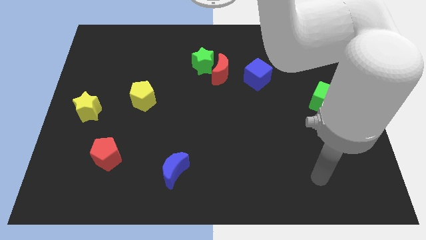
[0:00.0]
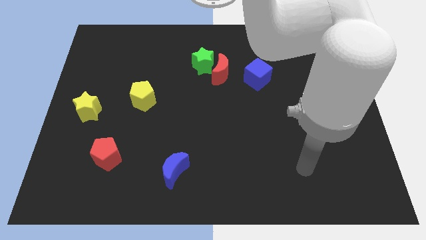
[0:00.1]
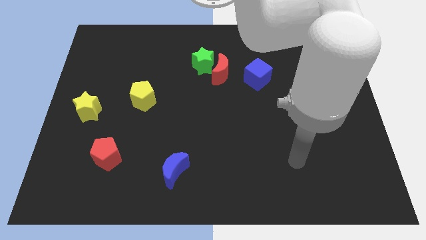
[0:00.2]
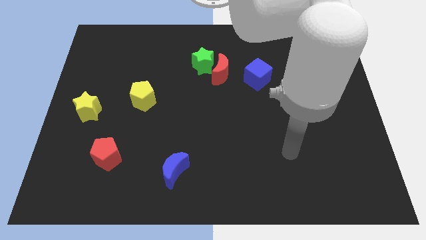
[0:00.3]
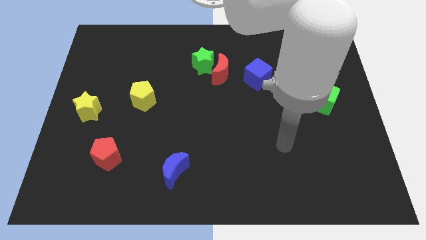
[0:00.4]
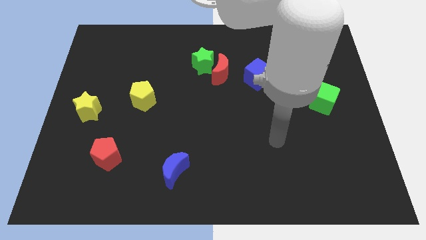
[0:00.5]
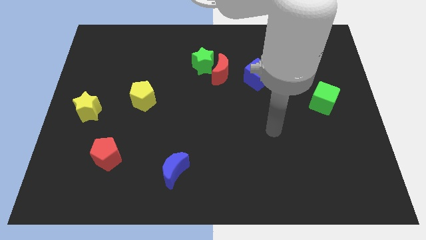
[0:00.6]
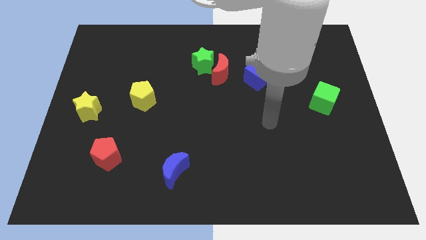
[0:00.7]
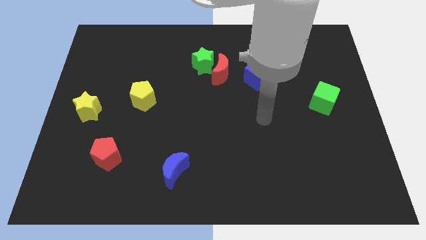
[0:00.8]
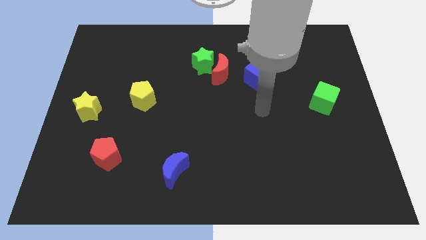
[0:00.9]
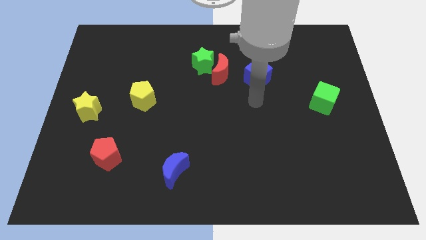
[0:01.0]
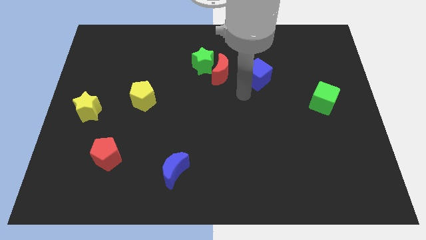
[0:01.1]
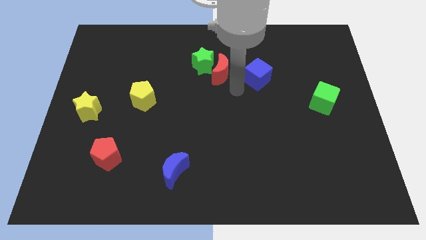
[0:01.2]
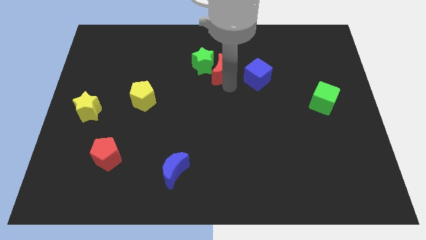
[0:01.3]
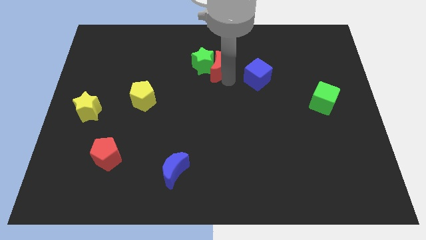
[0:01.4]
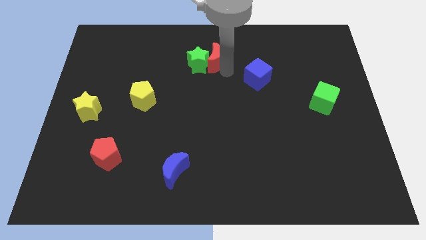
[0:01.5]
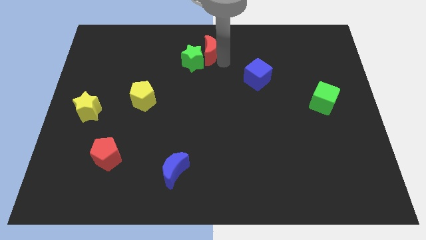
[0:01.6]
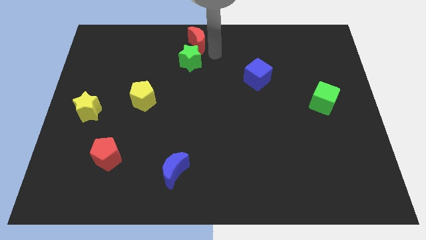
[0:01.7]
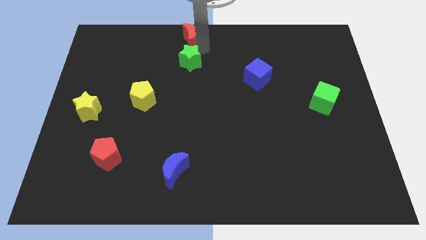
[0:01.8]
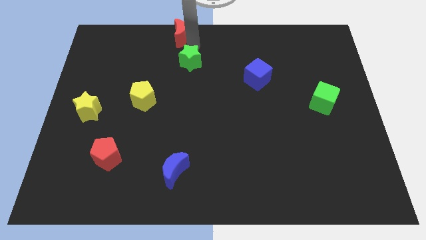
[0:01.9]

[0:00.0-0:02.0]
separate the green star from the red moon

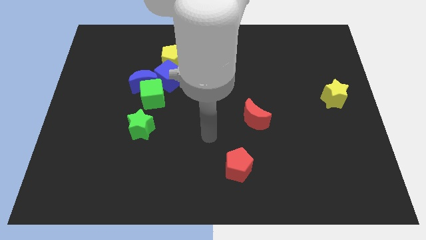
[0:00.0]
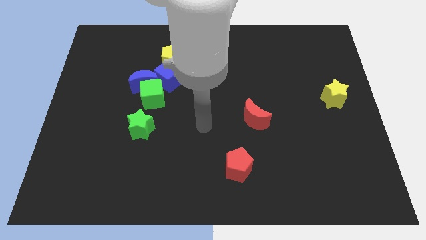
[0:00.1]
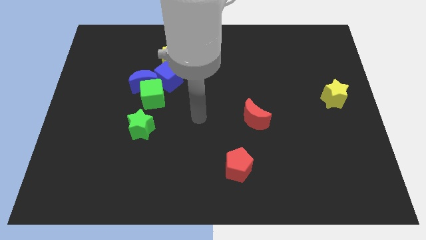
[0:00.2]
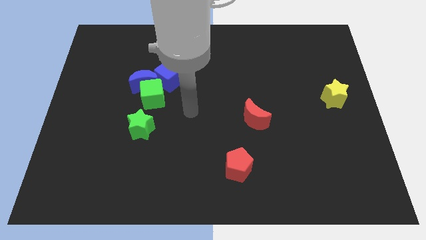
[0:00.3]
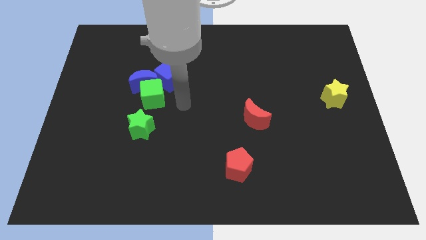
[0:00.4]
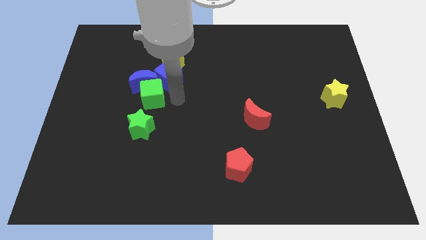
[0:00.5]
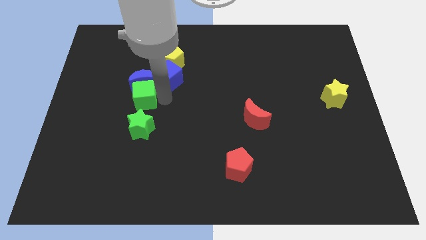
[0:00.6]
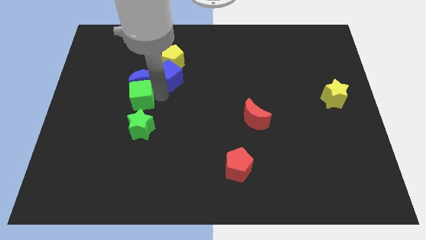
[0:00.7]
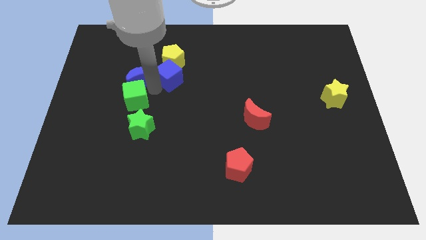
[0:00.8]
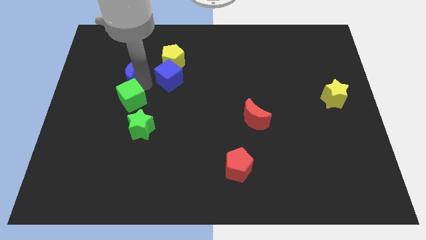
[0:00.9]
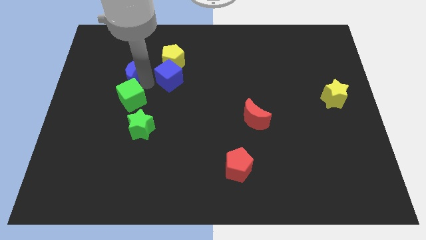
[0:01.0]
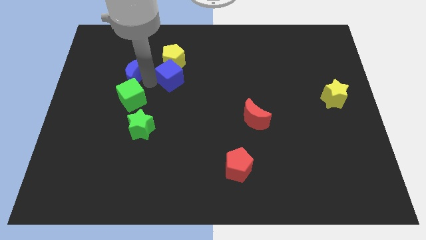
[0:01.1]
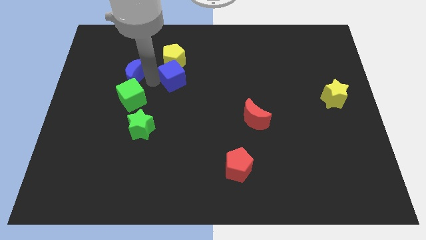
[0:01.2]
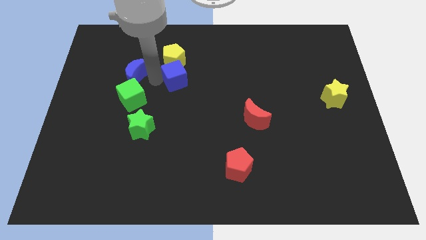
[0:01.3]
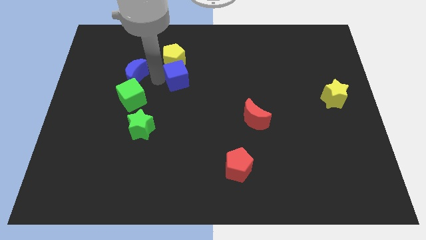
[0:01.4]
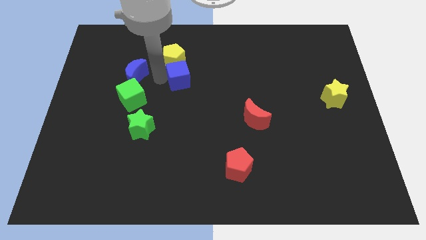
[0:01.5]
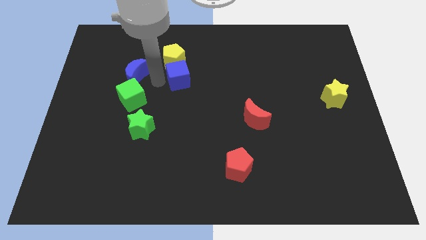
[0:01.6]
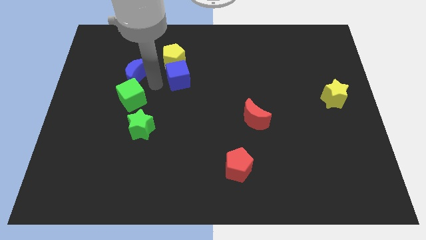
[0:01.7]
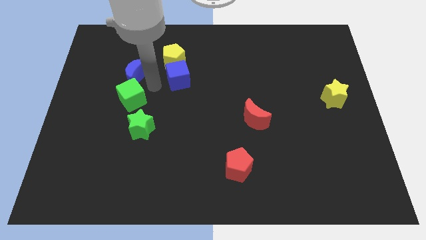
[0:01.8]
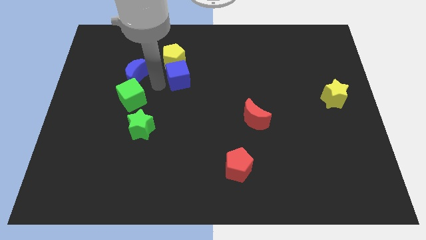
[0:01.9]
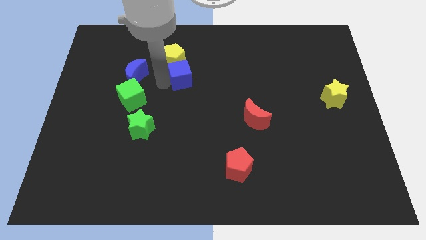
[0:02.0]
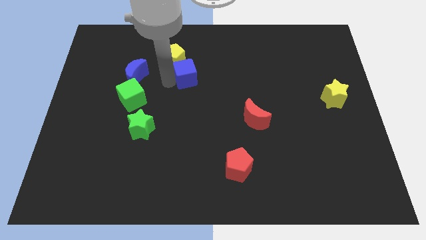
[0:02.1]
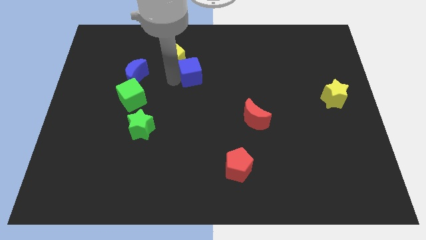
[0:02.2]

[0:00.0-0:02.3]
pull the blue cube apart from the group

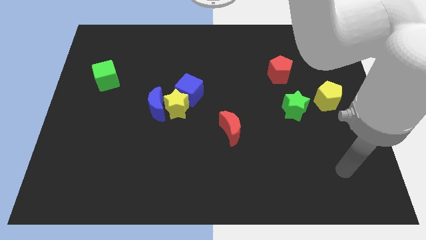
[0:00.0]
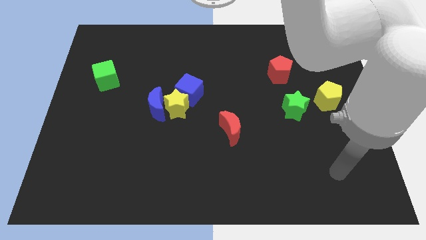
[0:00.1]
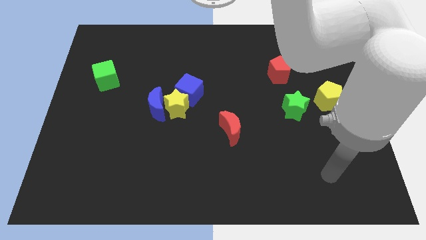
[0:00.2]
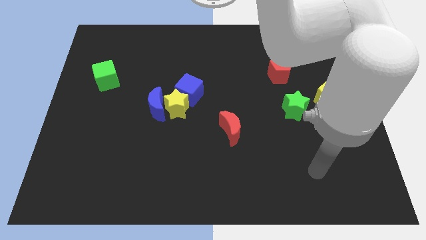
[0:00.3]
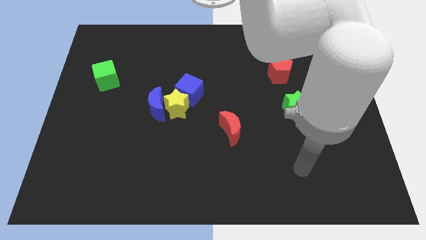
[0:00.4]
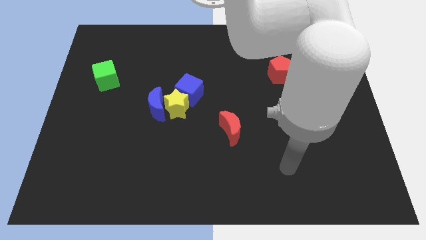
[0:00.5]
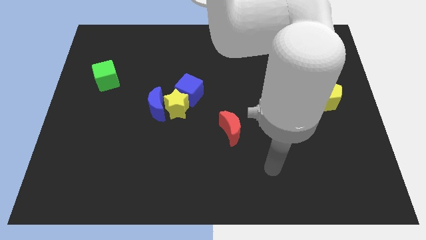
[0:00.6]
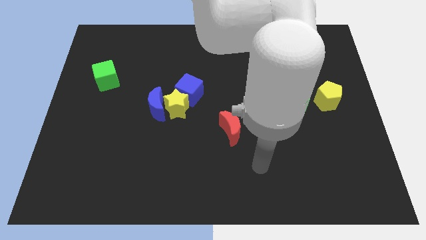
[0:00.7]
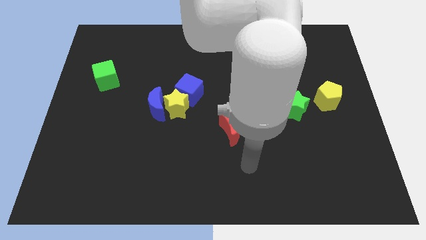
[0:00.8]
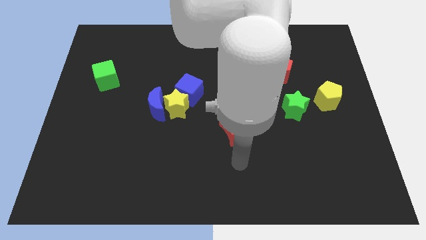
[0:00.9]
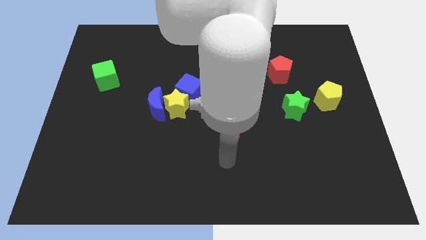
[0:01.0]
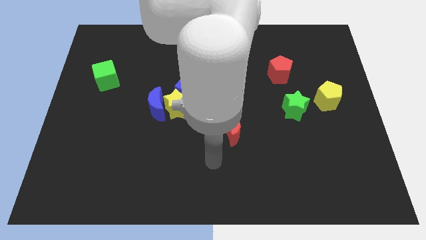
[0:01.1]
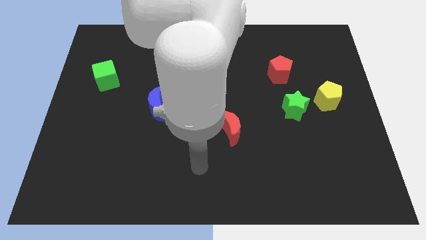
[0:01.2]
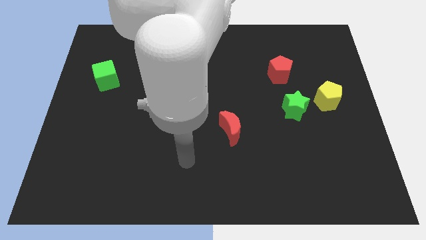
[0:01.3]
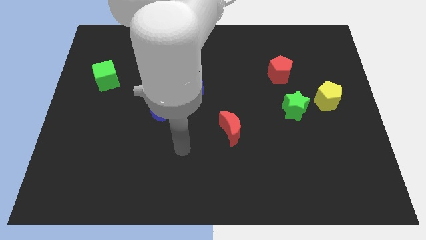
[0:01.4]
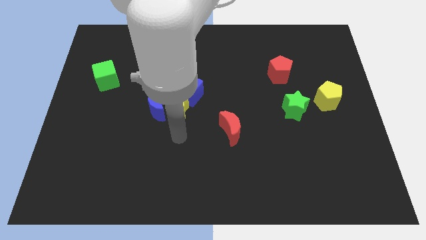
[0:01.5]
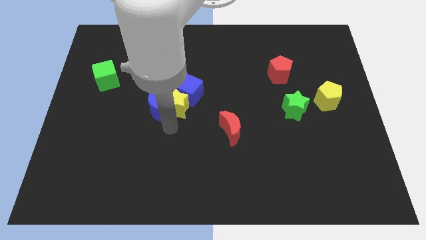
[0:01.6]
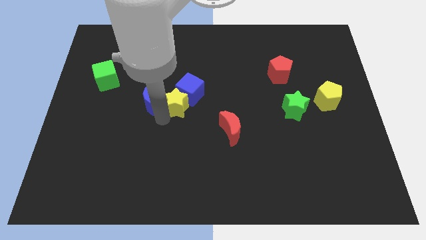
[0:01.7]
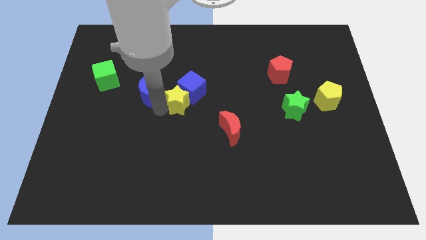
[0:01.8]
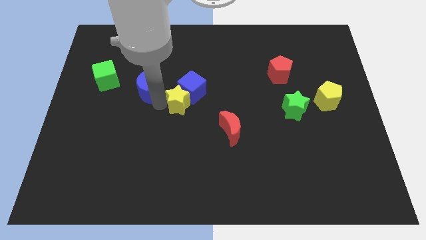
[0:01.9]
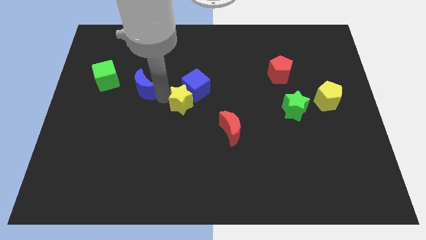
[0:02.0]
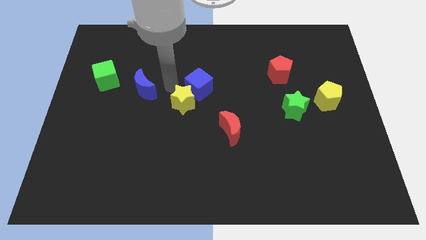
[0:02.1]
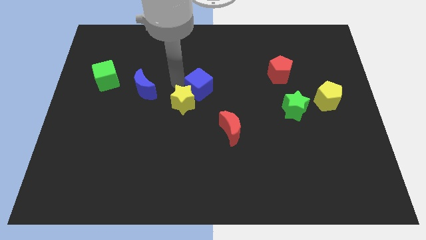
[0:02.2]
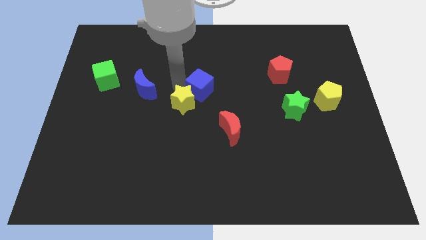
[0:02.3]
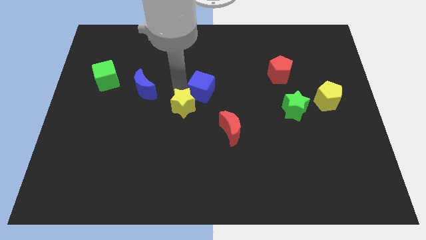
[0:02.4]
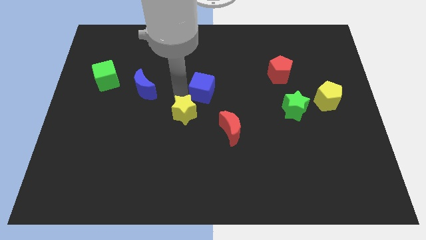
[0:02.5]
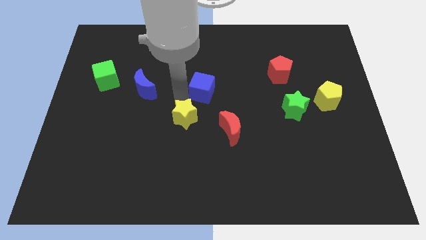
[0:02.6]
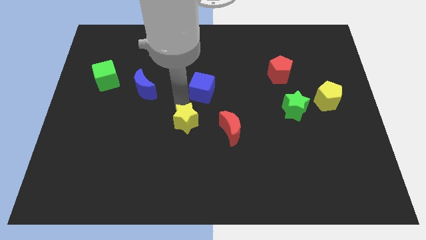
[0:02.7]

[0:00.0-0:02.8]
move the yellow star away from the blue moon and blue cube

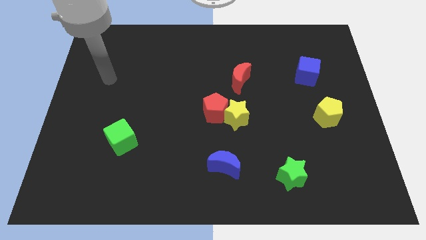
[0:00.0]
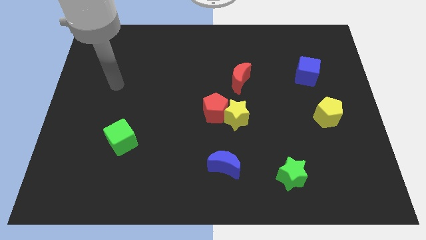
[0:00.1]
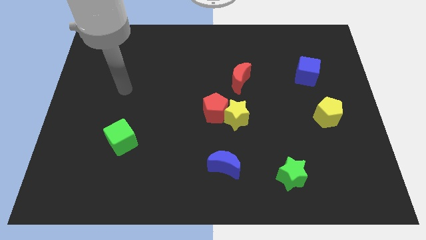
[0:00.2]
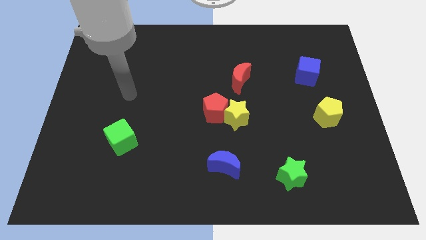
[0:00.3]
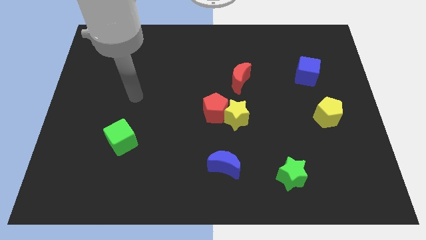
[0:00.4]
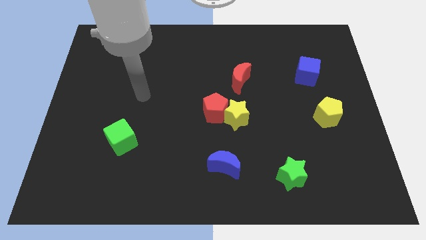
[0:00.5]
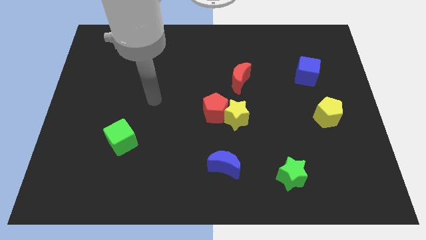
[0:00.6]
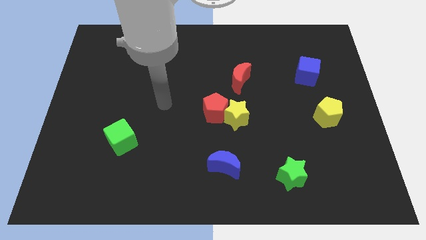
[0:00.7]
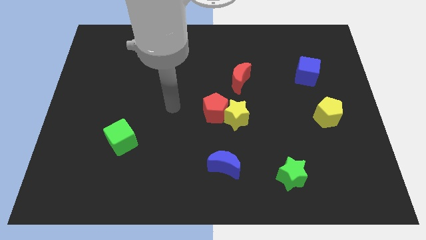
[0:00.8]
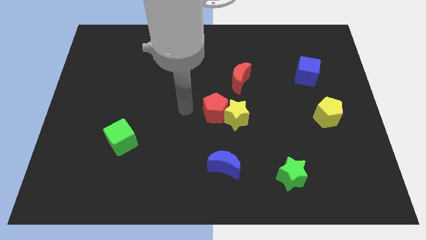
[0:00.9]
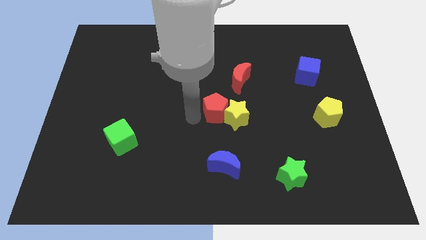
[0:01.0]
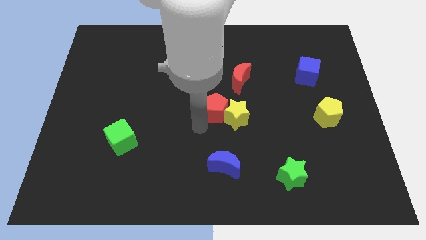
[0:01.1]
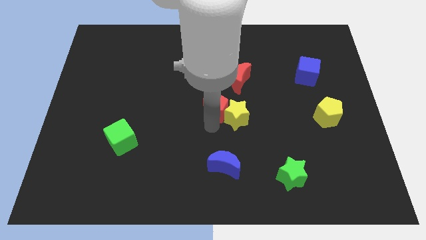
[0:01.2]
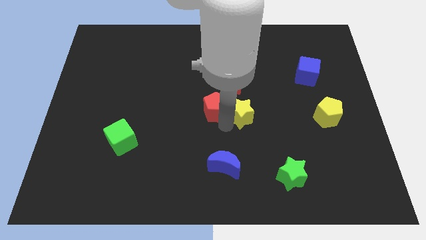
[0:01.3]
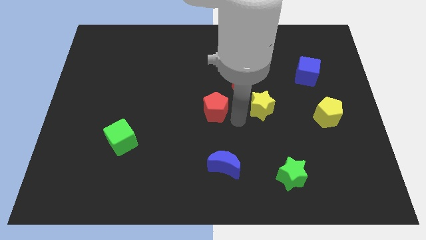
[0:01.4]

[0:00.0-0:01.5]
move the red pentagon away from the yellow star

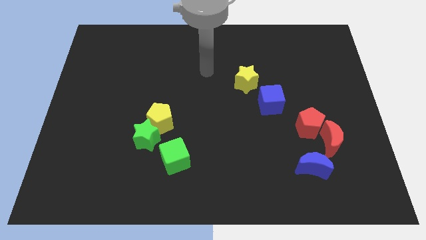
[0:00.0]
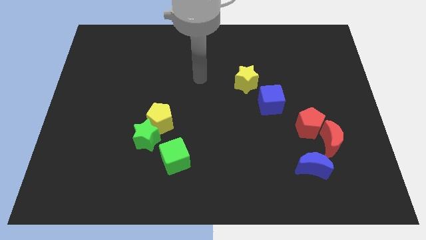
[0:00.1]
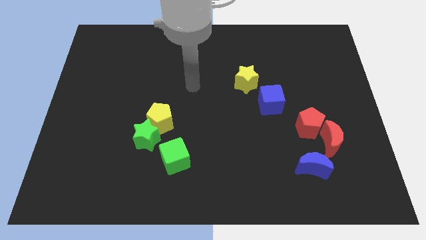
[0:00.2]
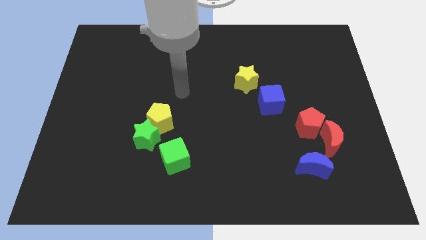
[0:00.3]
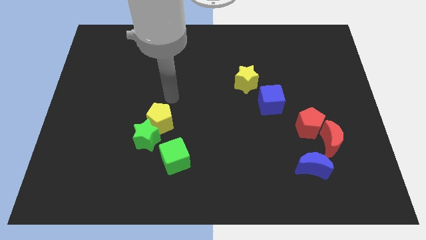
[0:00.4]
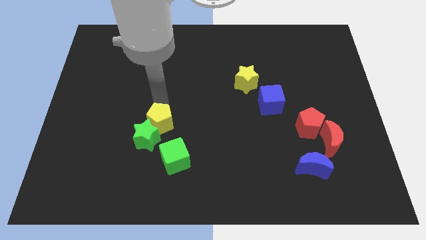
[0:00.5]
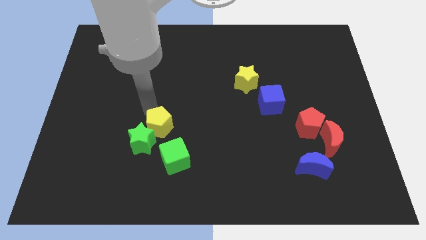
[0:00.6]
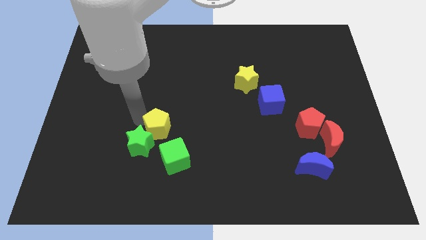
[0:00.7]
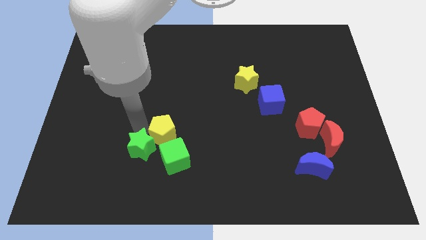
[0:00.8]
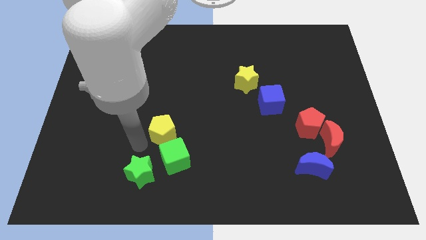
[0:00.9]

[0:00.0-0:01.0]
pull the yellow pentagon apart from the green star
